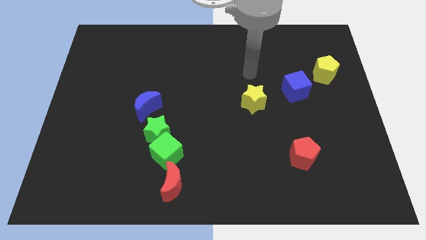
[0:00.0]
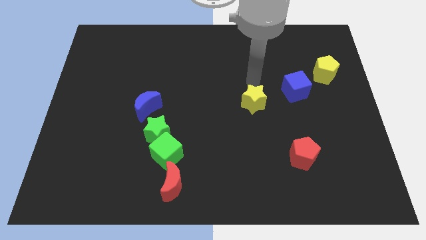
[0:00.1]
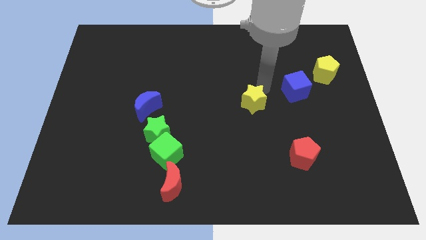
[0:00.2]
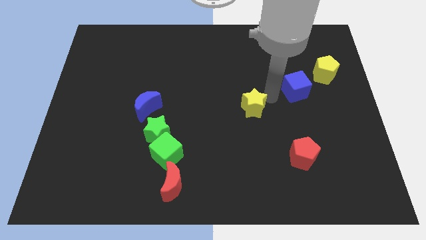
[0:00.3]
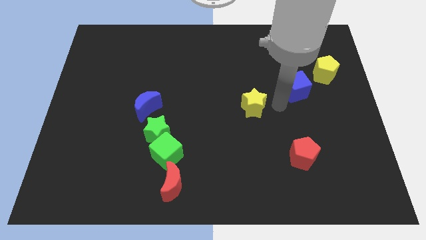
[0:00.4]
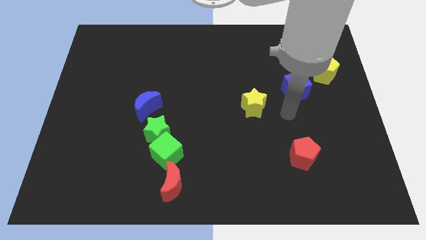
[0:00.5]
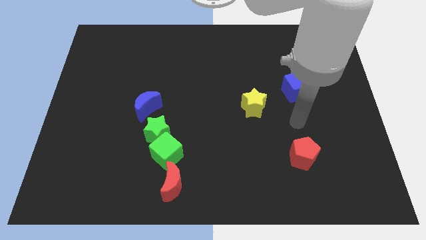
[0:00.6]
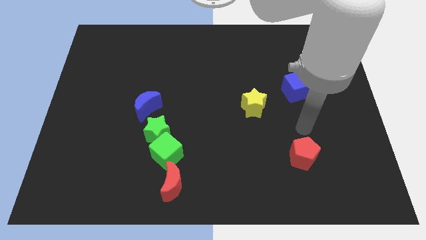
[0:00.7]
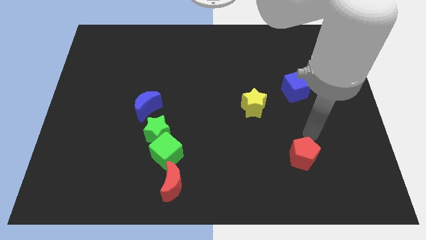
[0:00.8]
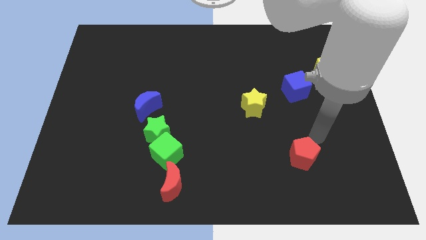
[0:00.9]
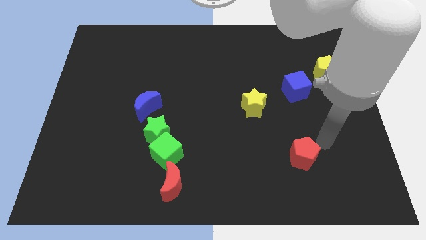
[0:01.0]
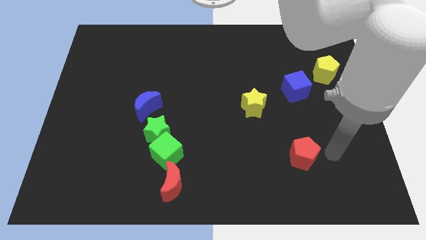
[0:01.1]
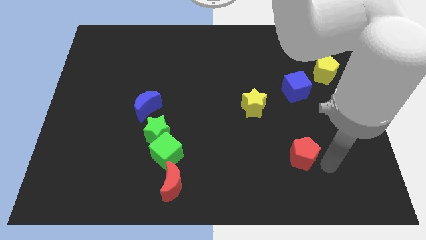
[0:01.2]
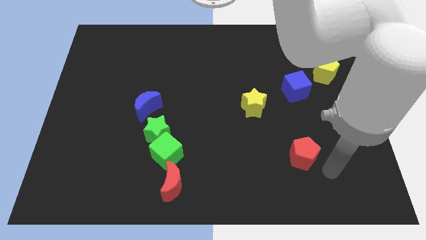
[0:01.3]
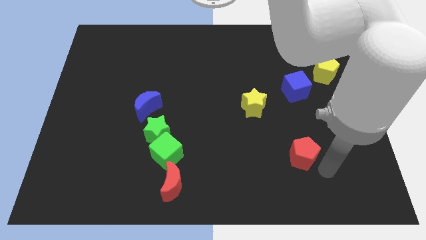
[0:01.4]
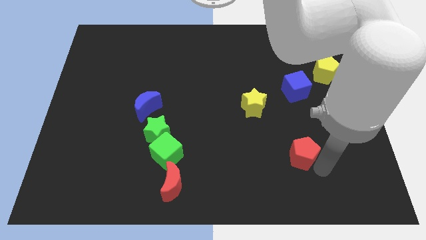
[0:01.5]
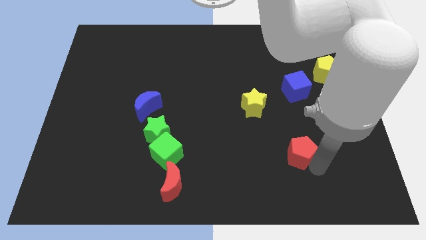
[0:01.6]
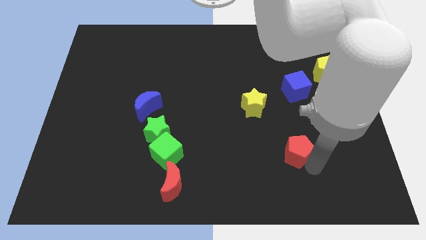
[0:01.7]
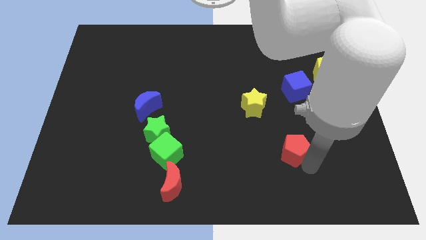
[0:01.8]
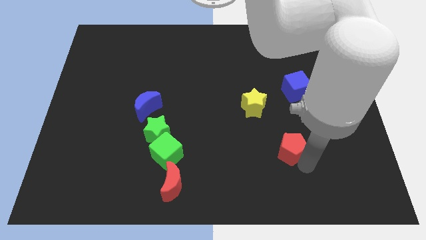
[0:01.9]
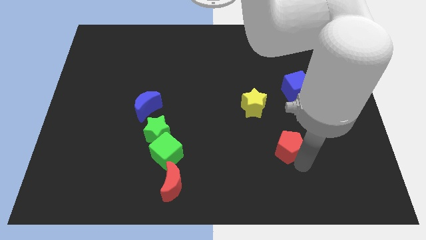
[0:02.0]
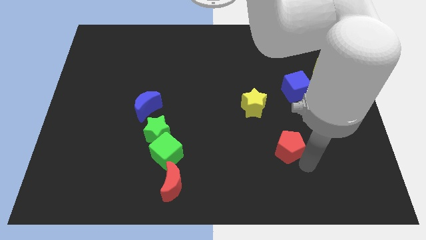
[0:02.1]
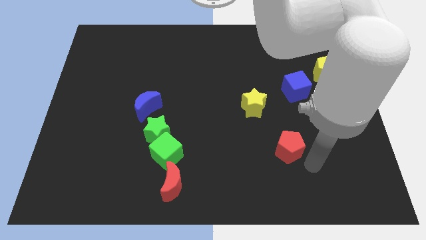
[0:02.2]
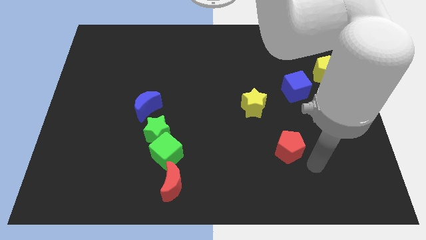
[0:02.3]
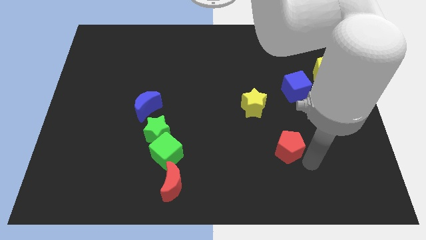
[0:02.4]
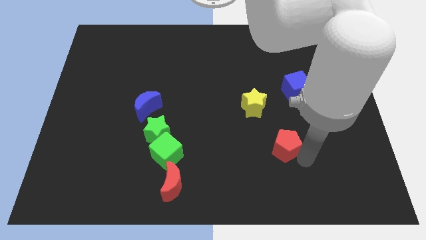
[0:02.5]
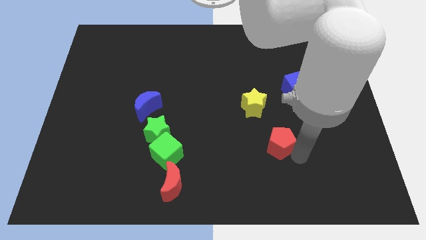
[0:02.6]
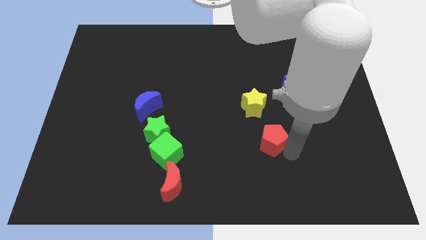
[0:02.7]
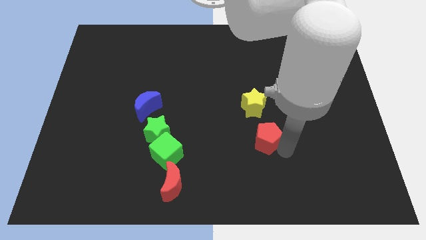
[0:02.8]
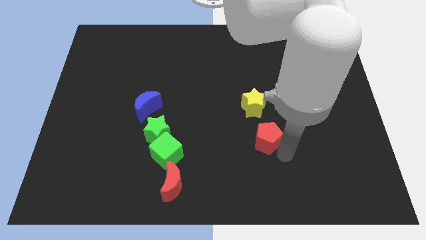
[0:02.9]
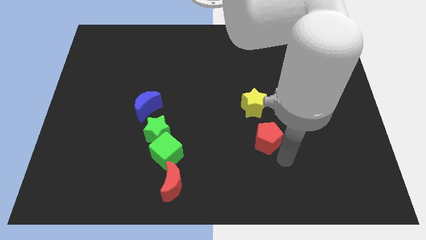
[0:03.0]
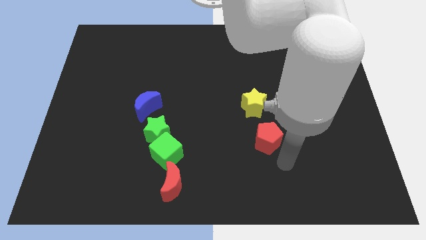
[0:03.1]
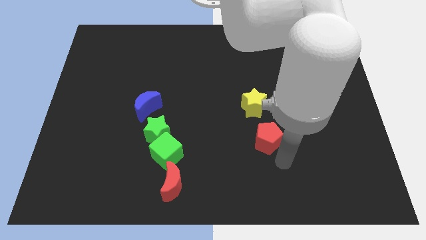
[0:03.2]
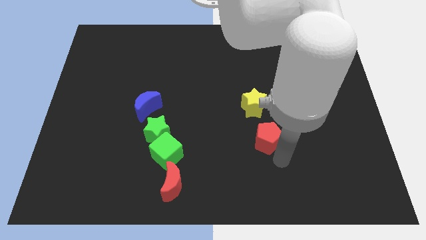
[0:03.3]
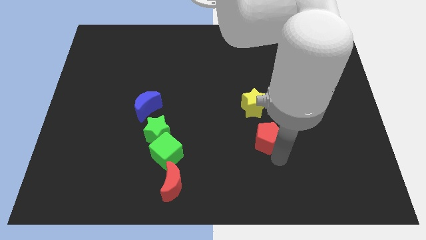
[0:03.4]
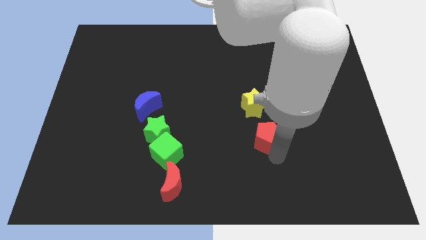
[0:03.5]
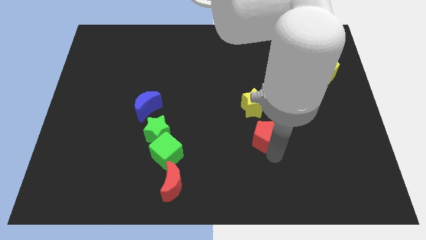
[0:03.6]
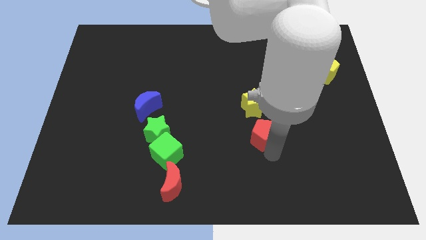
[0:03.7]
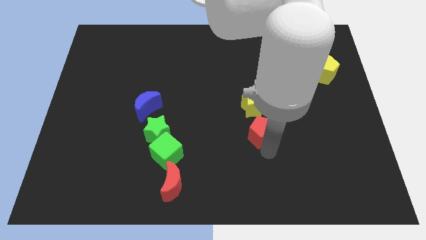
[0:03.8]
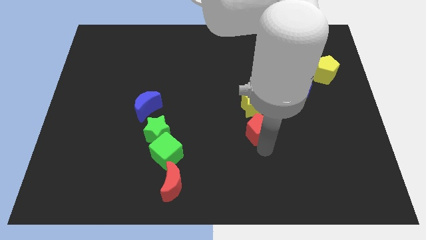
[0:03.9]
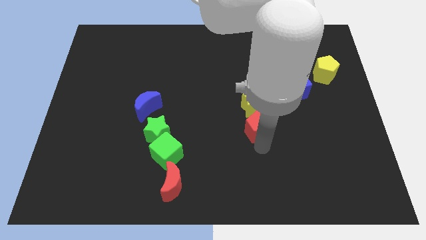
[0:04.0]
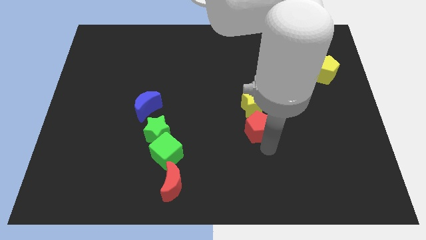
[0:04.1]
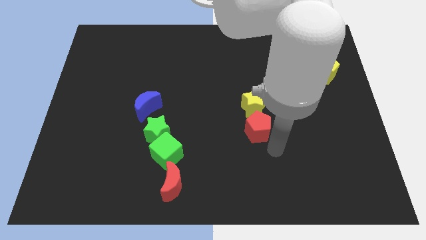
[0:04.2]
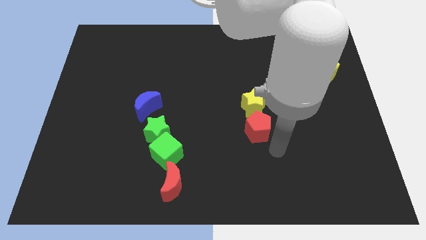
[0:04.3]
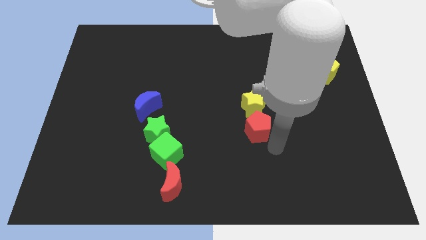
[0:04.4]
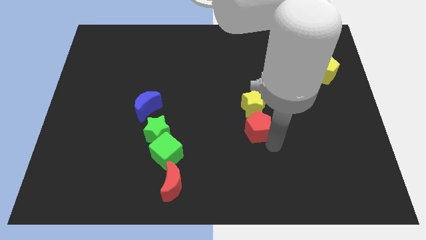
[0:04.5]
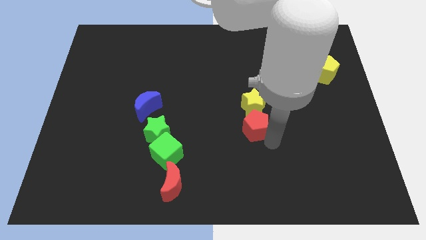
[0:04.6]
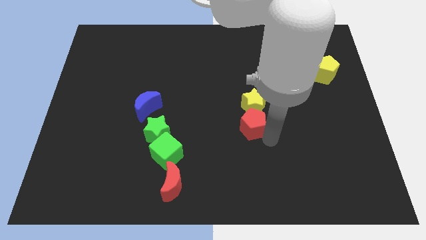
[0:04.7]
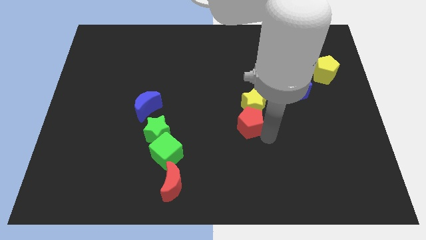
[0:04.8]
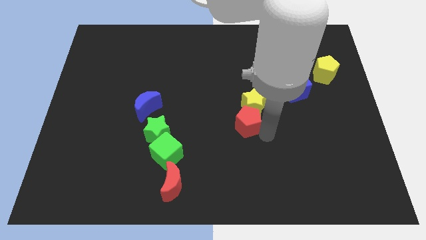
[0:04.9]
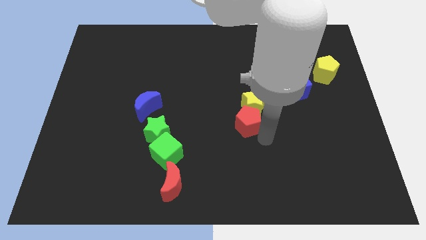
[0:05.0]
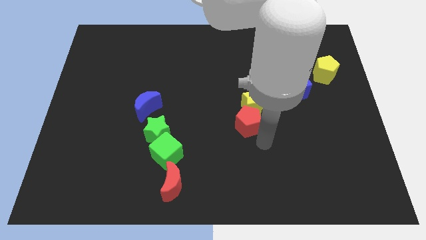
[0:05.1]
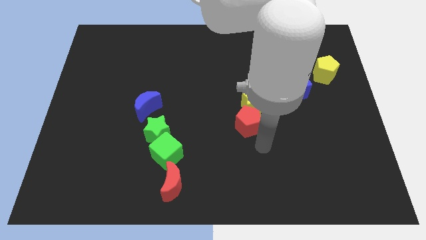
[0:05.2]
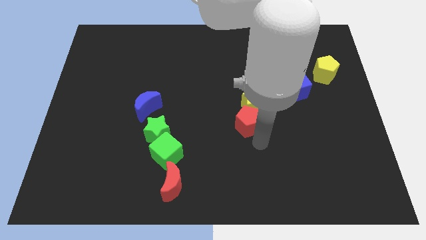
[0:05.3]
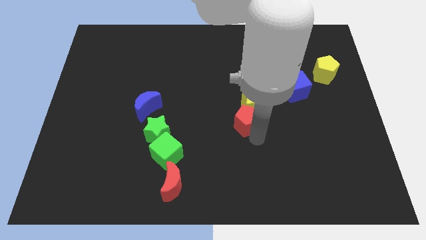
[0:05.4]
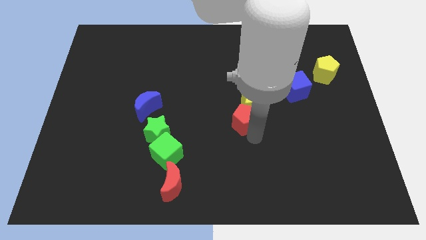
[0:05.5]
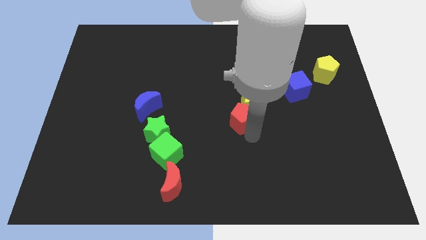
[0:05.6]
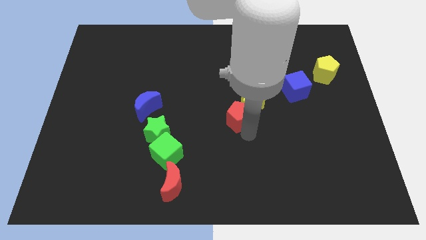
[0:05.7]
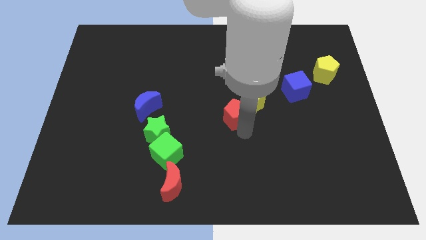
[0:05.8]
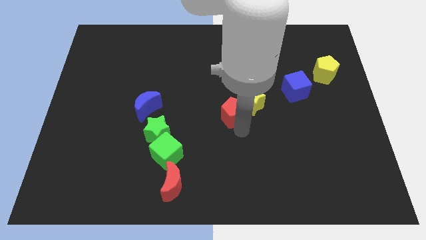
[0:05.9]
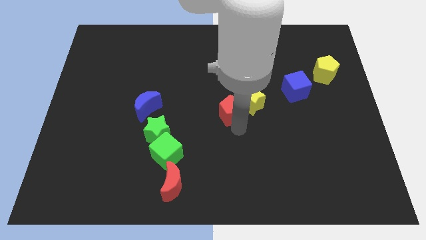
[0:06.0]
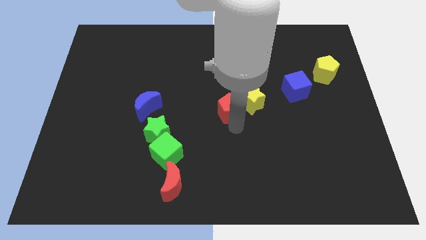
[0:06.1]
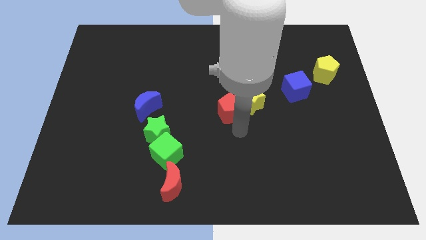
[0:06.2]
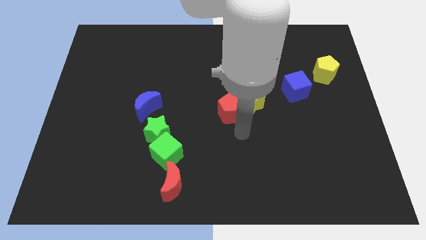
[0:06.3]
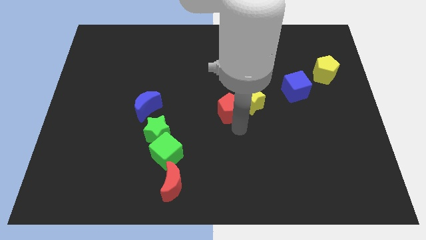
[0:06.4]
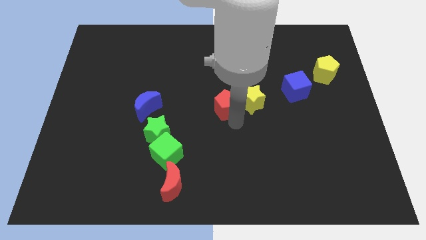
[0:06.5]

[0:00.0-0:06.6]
move the red pentagon upwards and then to the left

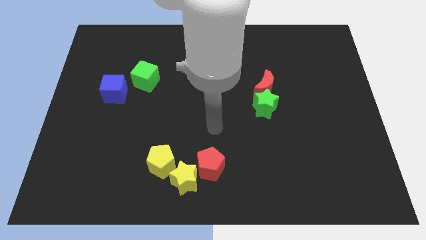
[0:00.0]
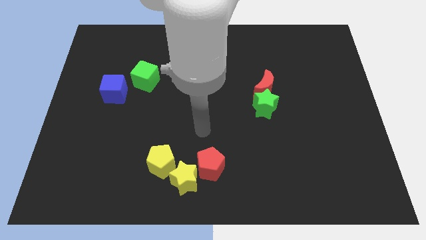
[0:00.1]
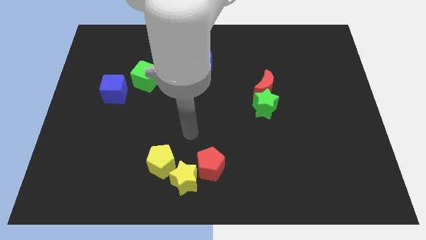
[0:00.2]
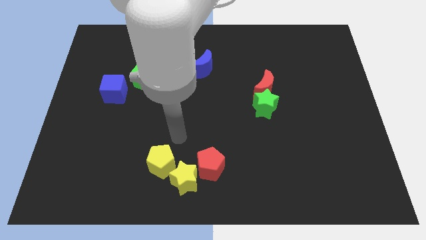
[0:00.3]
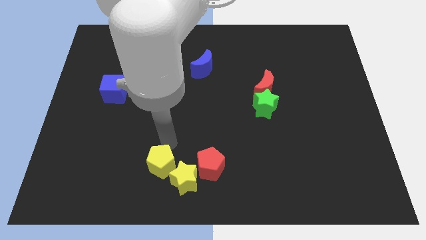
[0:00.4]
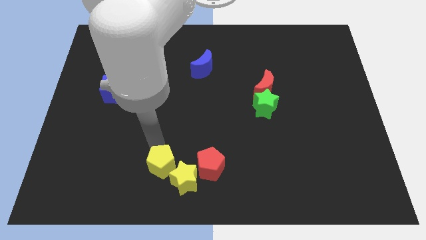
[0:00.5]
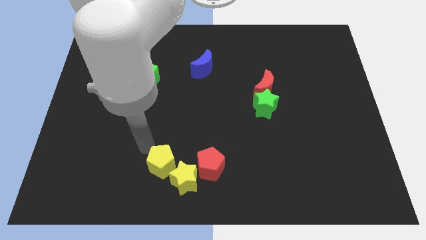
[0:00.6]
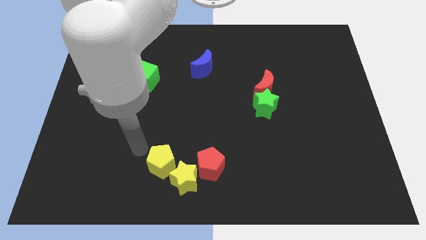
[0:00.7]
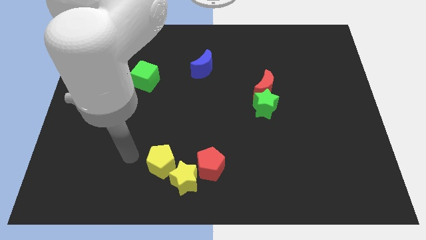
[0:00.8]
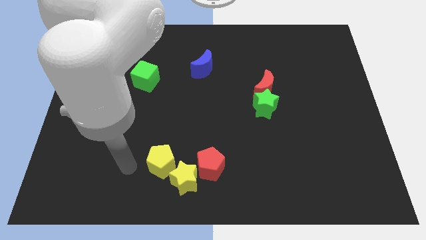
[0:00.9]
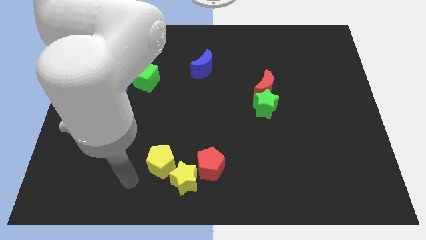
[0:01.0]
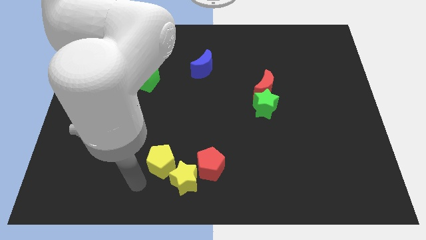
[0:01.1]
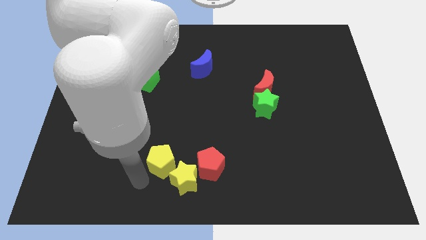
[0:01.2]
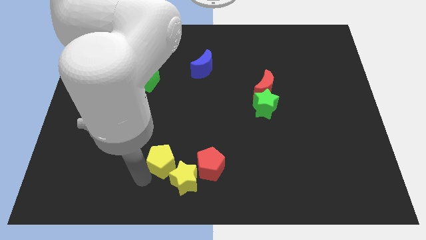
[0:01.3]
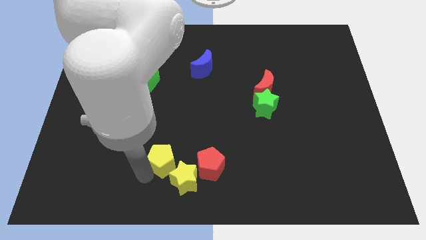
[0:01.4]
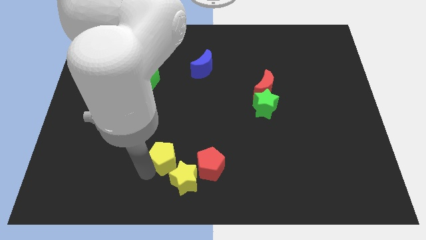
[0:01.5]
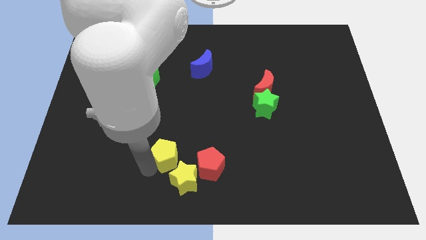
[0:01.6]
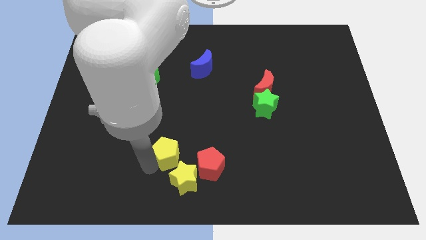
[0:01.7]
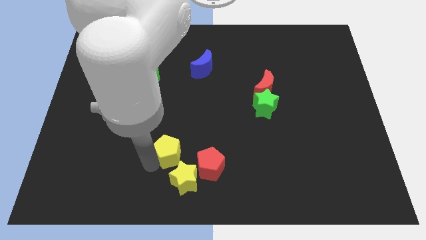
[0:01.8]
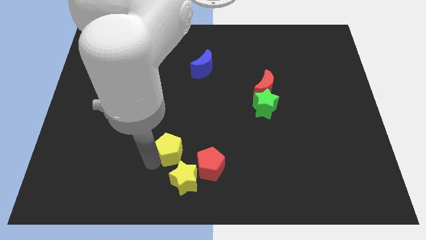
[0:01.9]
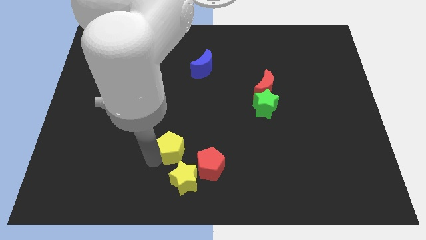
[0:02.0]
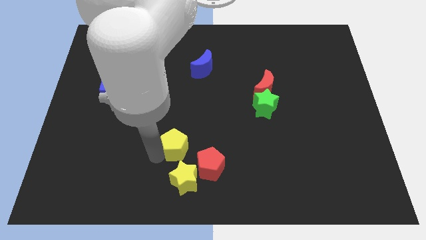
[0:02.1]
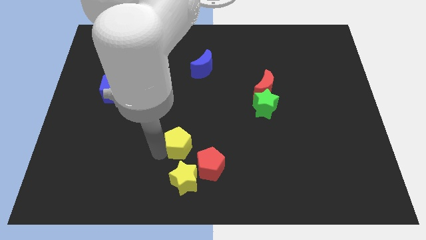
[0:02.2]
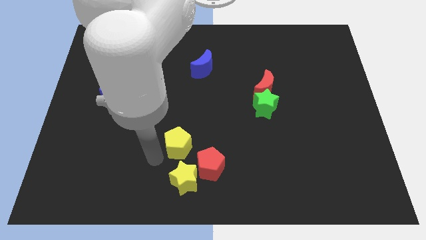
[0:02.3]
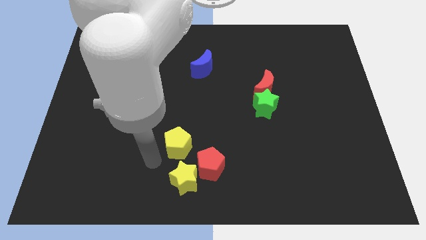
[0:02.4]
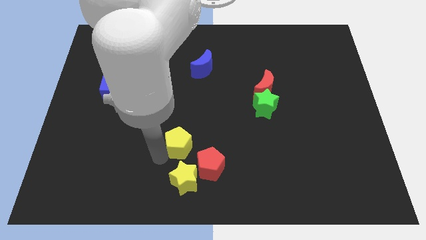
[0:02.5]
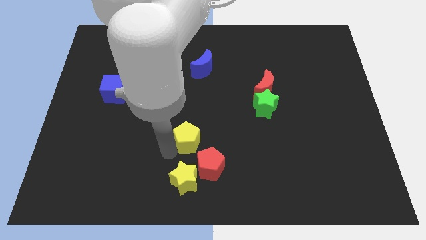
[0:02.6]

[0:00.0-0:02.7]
move the yellow pentagon slightly diagonally up and to the right
